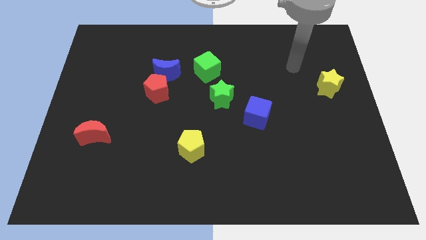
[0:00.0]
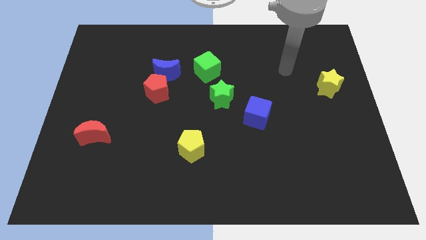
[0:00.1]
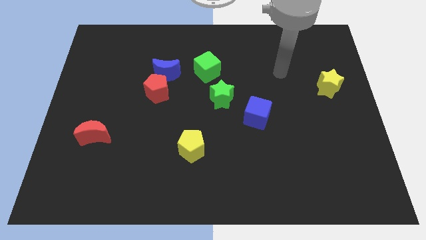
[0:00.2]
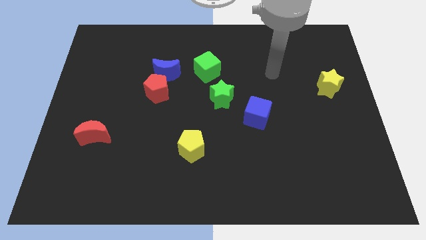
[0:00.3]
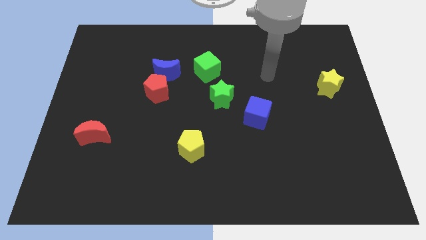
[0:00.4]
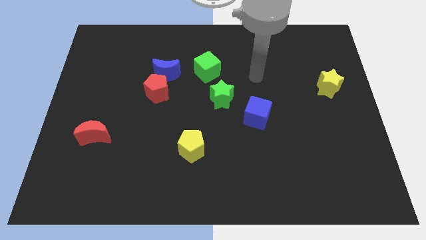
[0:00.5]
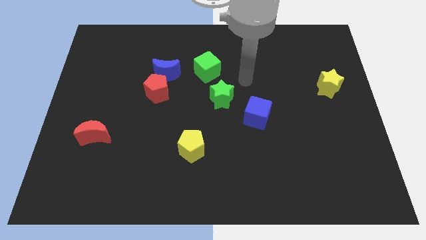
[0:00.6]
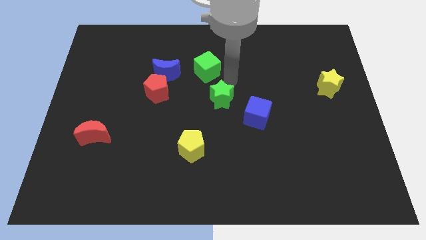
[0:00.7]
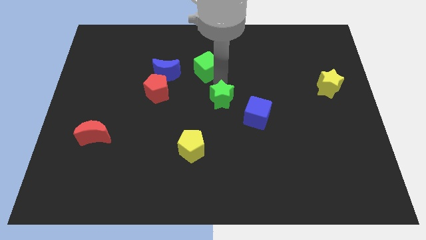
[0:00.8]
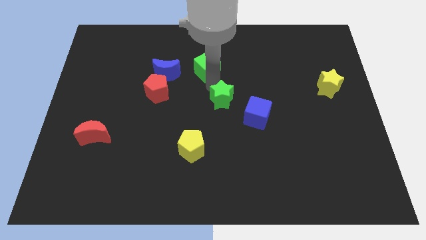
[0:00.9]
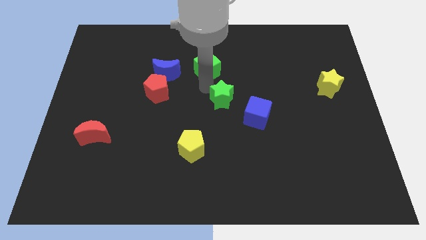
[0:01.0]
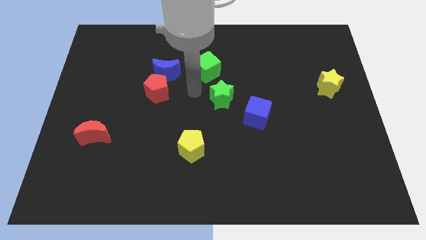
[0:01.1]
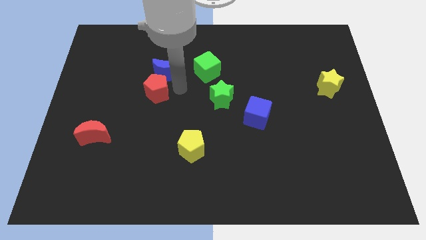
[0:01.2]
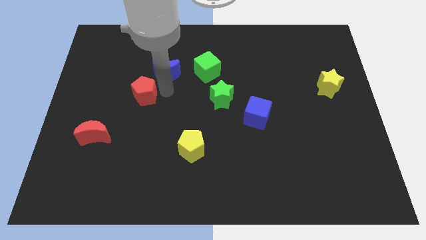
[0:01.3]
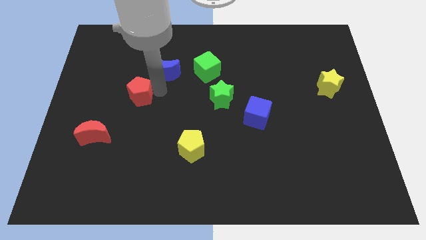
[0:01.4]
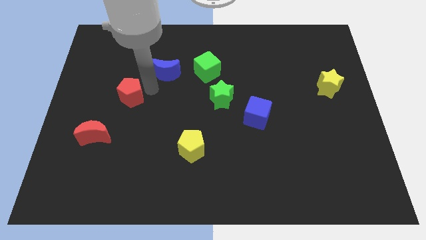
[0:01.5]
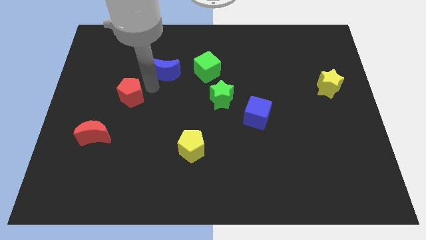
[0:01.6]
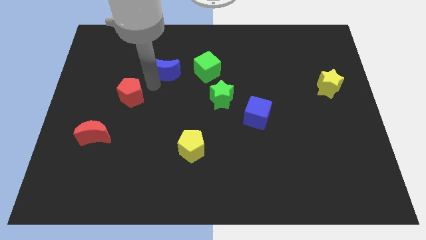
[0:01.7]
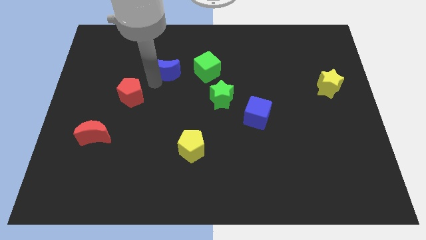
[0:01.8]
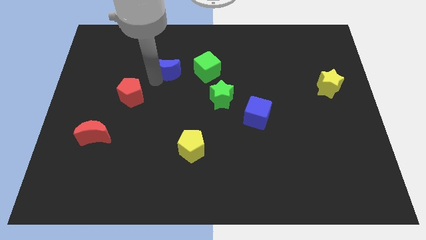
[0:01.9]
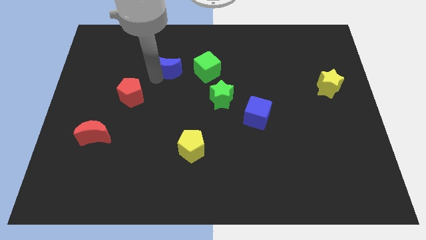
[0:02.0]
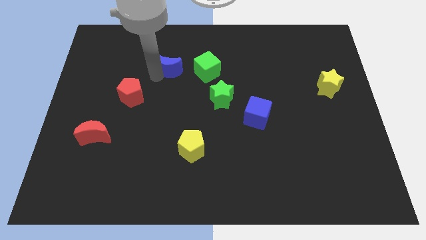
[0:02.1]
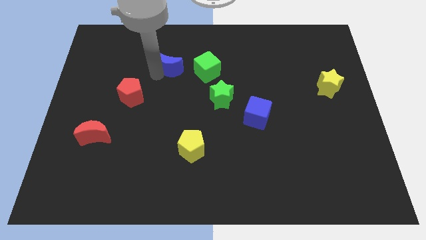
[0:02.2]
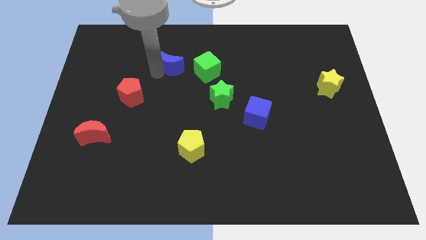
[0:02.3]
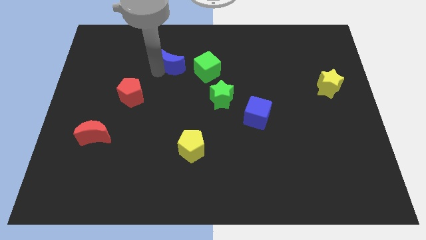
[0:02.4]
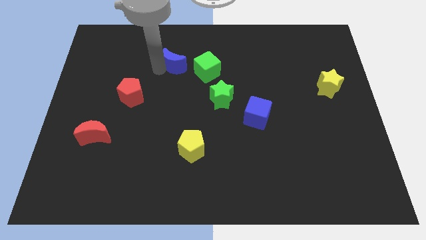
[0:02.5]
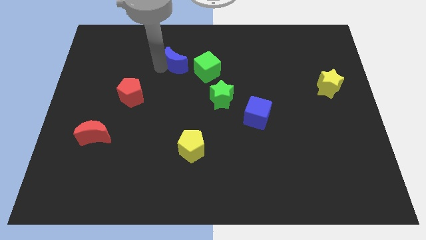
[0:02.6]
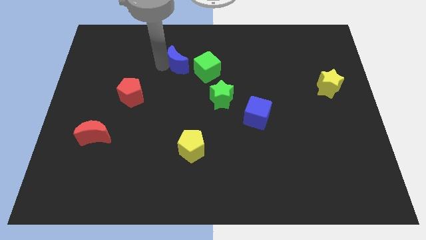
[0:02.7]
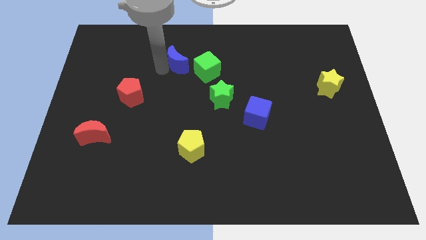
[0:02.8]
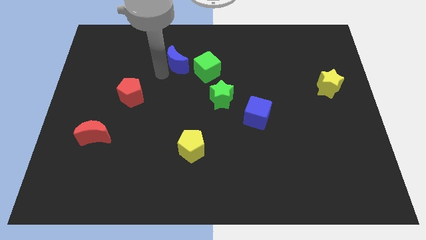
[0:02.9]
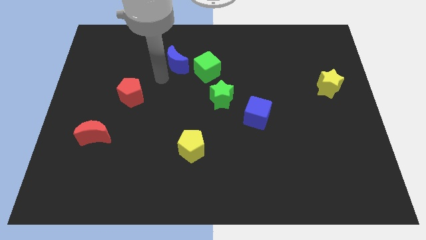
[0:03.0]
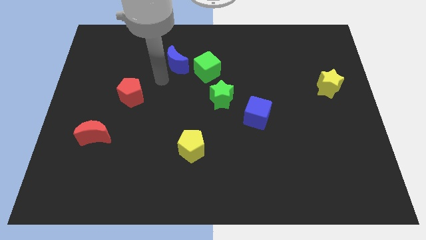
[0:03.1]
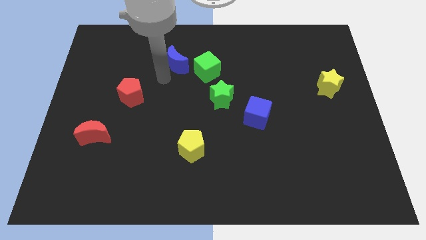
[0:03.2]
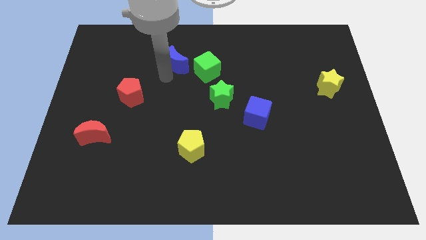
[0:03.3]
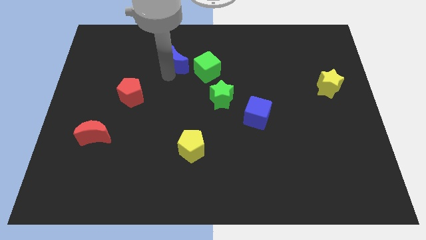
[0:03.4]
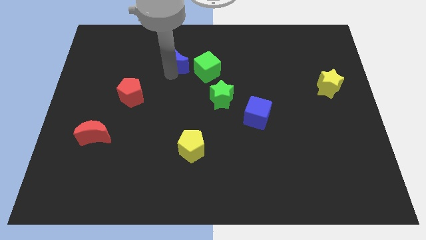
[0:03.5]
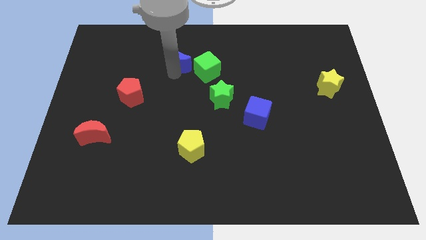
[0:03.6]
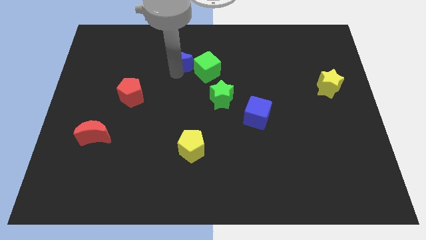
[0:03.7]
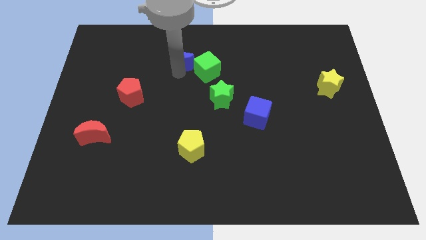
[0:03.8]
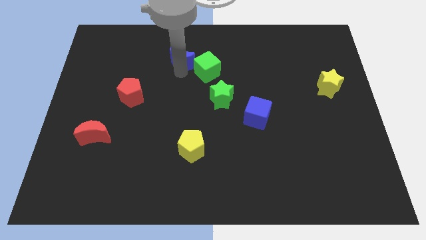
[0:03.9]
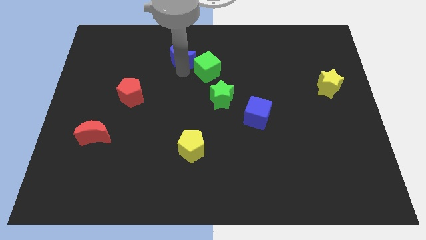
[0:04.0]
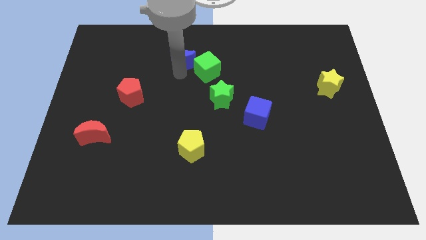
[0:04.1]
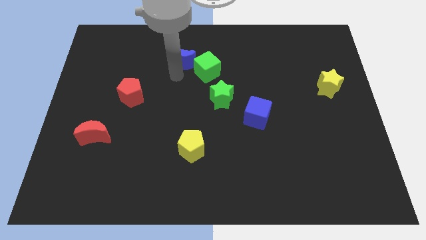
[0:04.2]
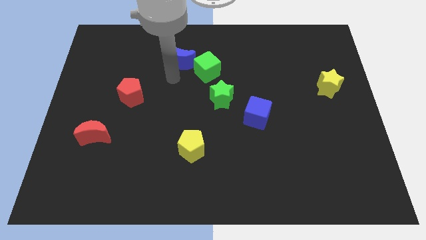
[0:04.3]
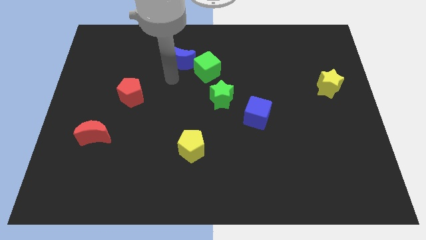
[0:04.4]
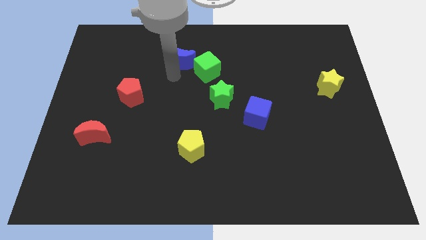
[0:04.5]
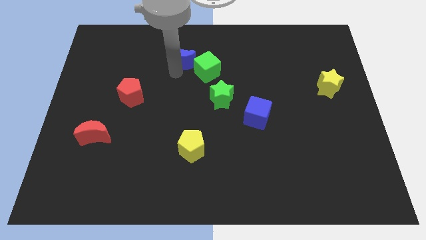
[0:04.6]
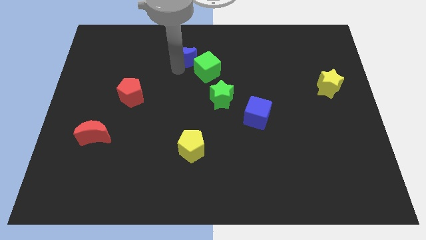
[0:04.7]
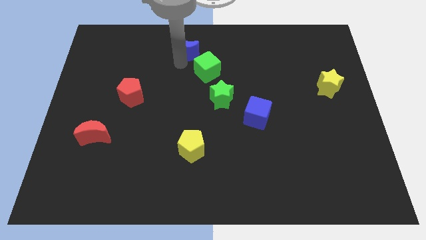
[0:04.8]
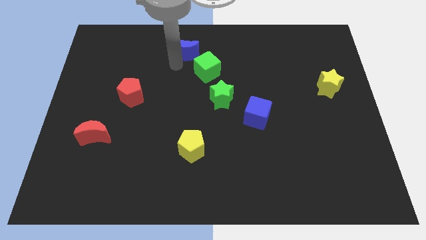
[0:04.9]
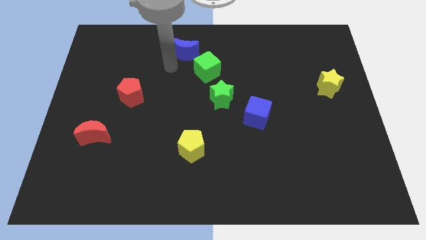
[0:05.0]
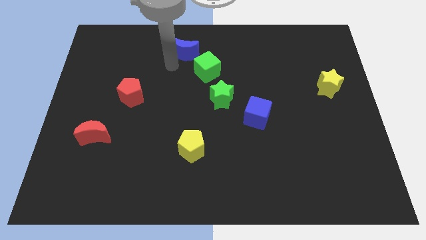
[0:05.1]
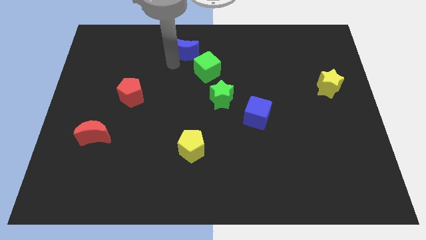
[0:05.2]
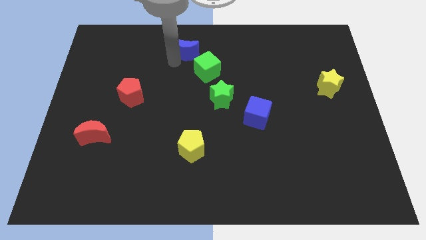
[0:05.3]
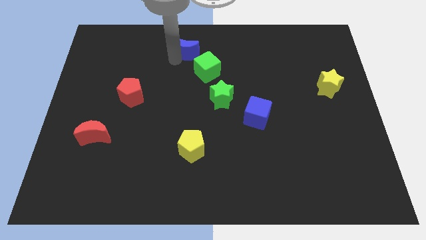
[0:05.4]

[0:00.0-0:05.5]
slide the blue moon to the top

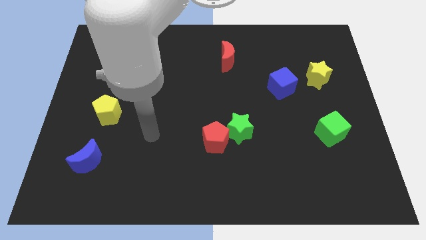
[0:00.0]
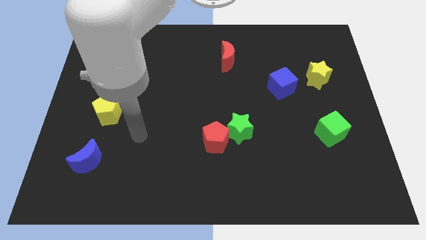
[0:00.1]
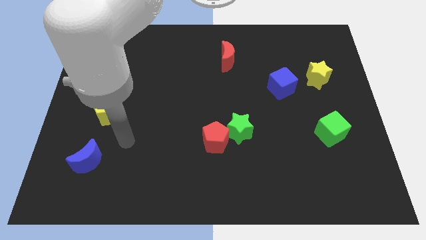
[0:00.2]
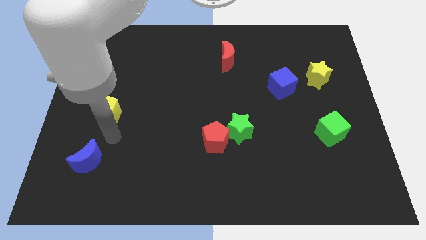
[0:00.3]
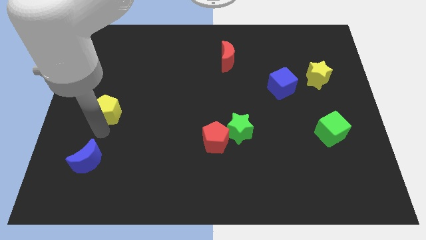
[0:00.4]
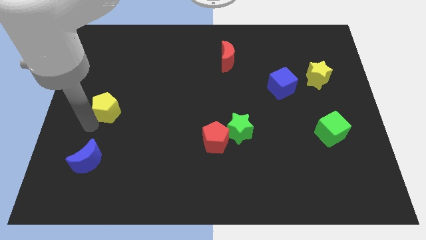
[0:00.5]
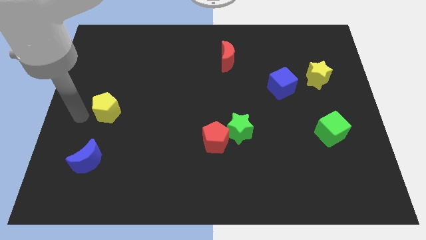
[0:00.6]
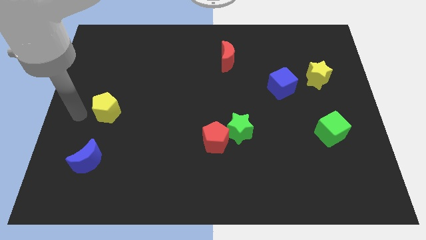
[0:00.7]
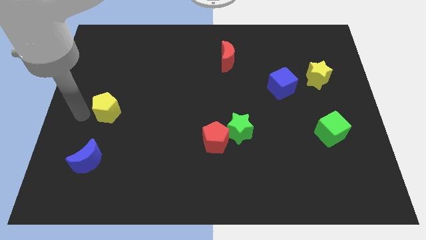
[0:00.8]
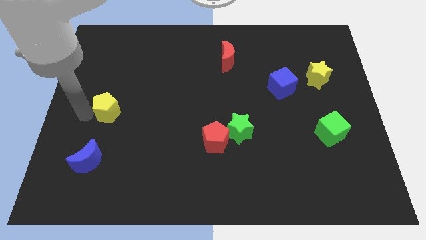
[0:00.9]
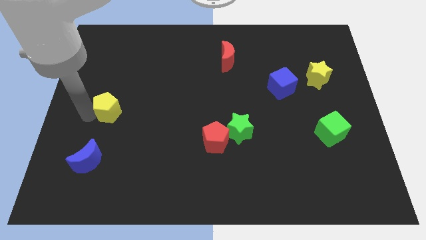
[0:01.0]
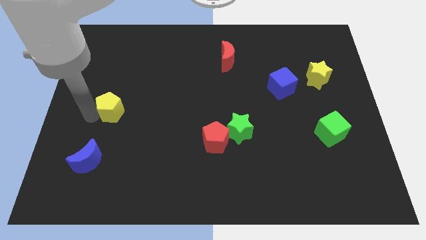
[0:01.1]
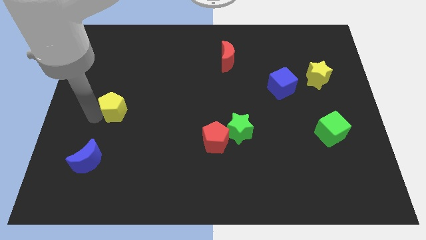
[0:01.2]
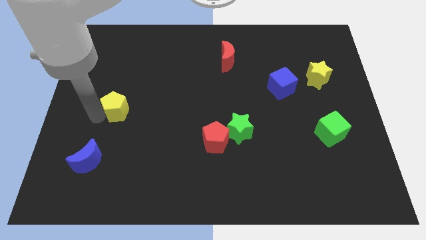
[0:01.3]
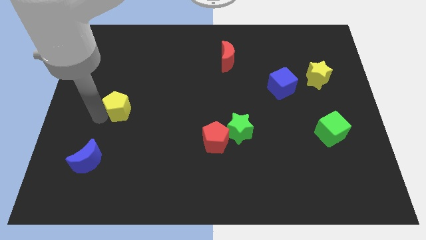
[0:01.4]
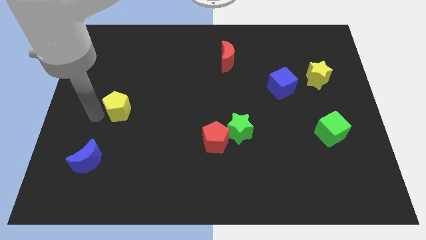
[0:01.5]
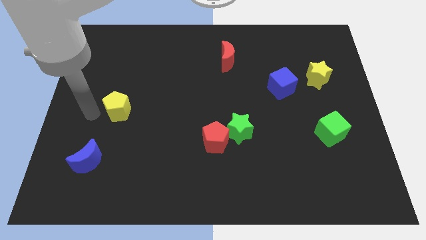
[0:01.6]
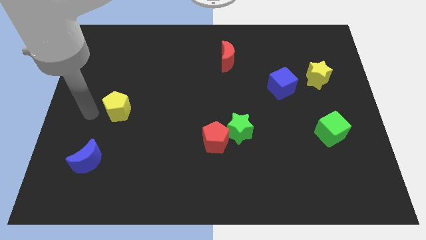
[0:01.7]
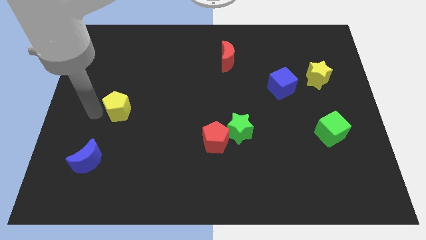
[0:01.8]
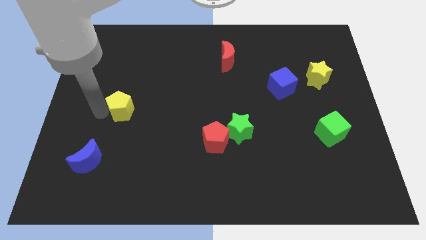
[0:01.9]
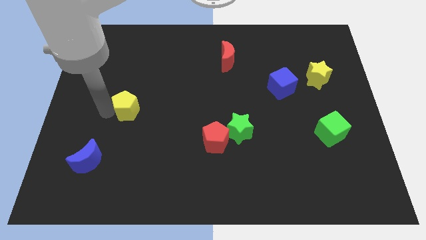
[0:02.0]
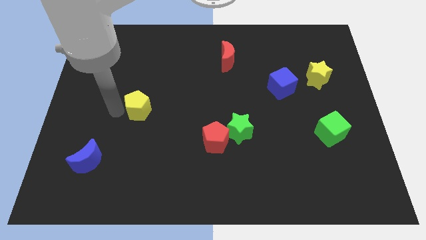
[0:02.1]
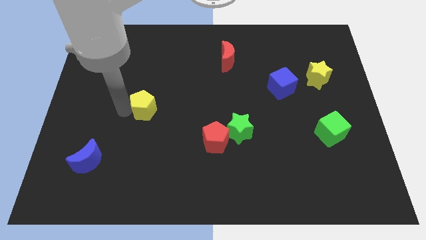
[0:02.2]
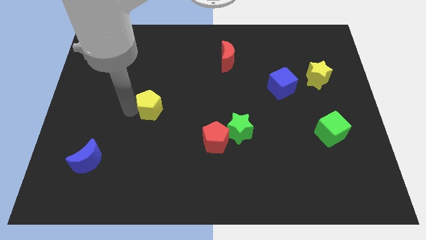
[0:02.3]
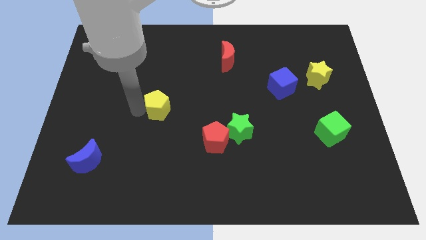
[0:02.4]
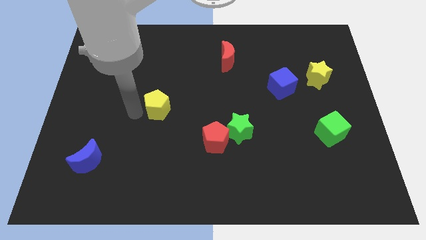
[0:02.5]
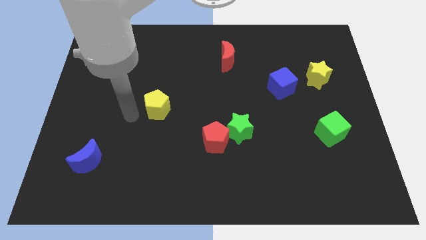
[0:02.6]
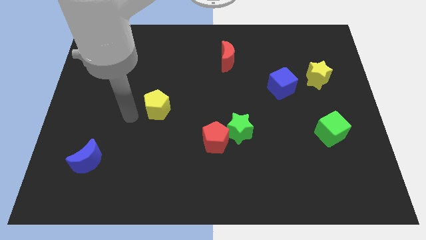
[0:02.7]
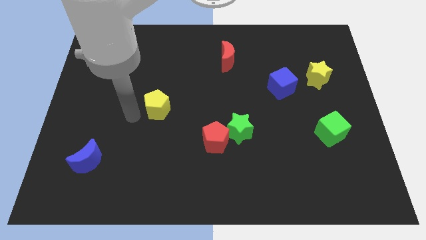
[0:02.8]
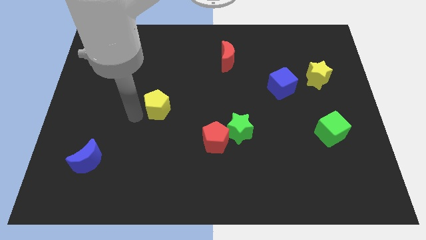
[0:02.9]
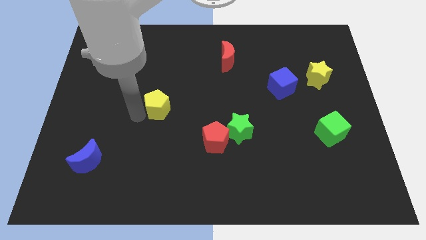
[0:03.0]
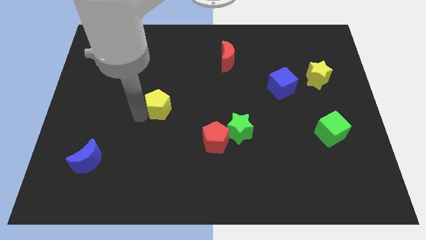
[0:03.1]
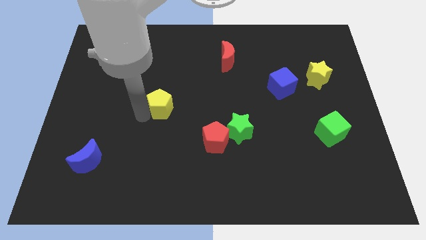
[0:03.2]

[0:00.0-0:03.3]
put the yellow pentagon to the middle of the board
